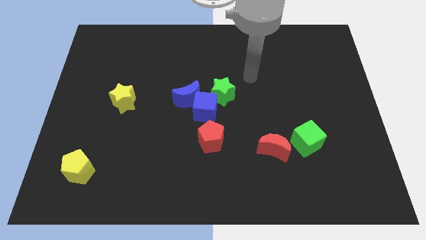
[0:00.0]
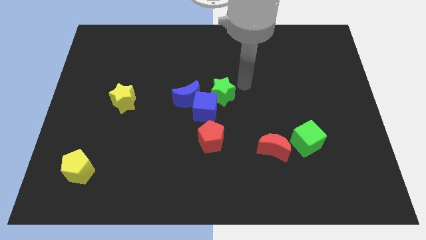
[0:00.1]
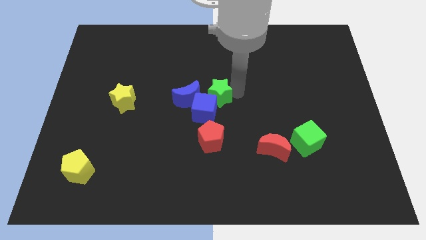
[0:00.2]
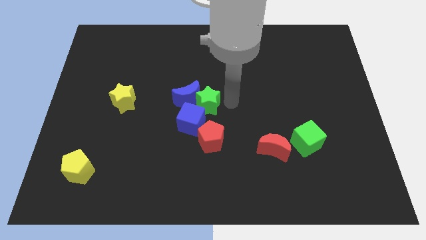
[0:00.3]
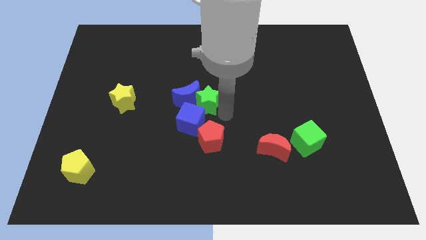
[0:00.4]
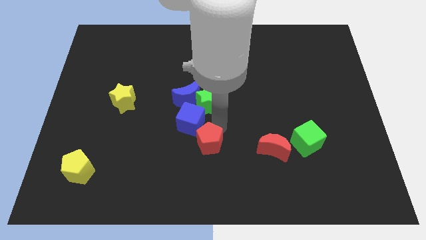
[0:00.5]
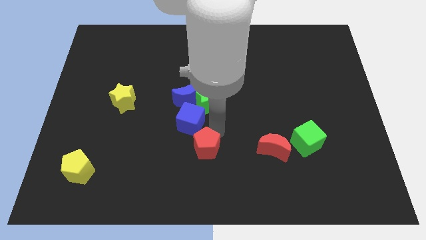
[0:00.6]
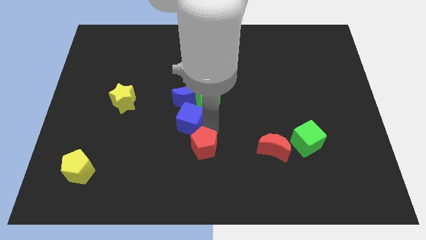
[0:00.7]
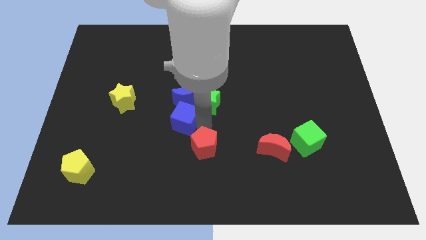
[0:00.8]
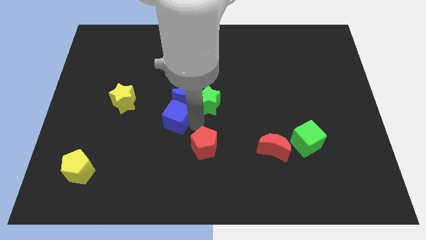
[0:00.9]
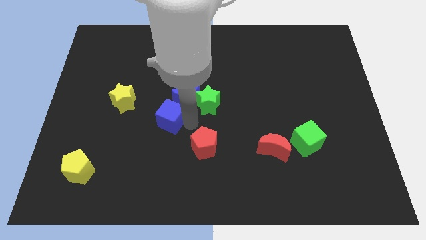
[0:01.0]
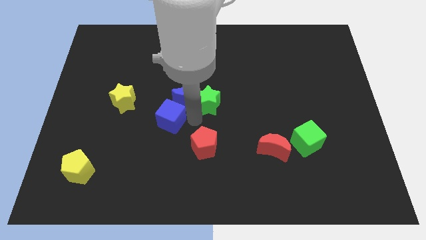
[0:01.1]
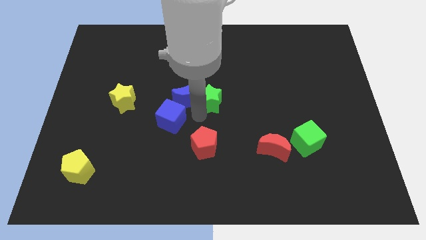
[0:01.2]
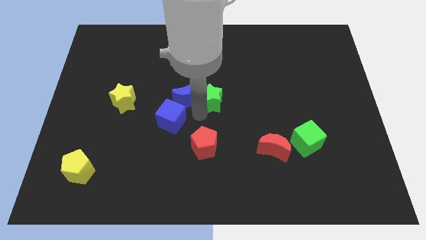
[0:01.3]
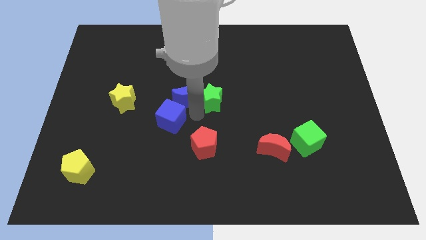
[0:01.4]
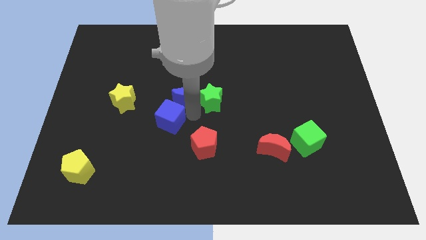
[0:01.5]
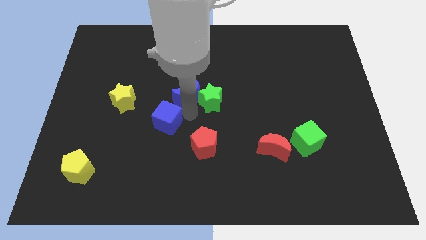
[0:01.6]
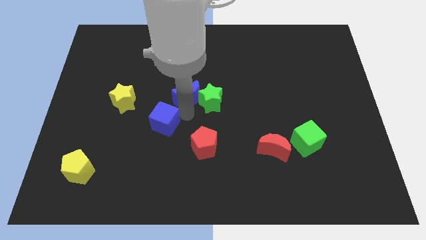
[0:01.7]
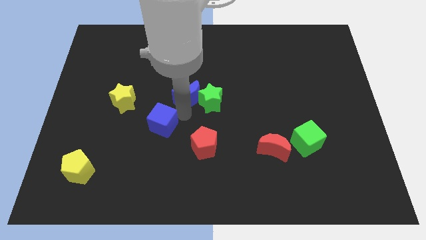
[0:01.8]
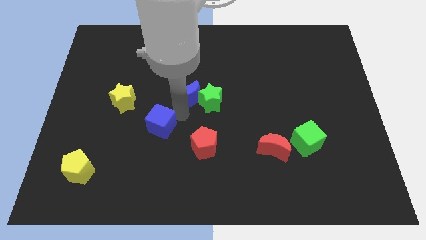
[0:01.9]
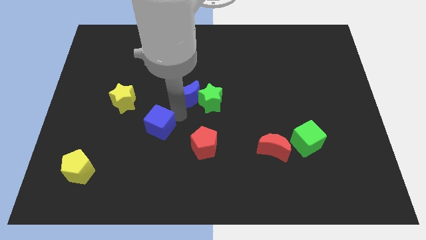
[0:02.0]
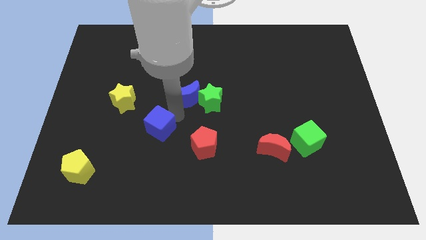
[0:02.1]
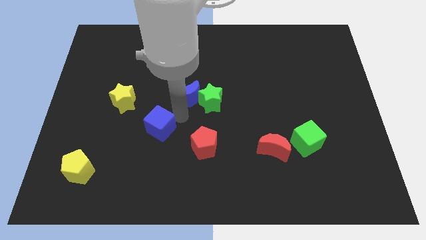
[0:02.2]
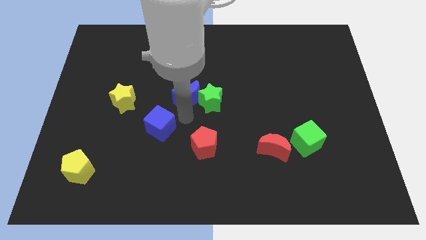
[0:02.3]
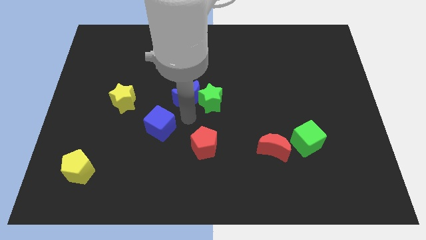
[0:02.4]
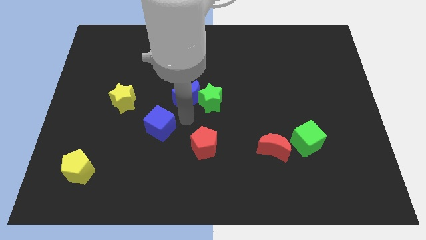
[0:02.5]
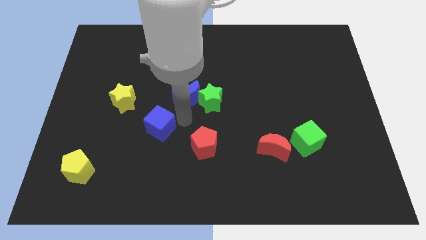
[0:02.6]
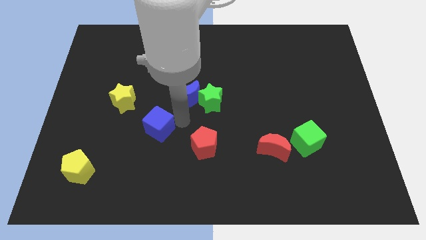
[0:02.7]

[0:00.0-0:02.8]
pull the blue cube apart from the group

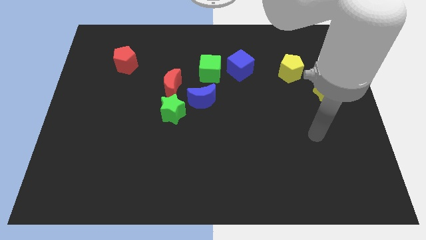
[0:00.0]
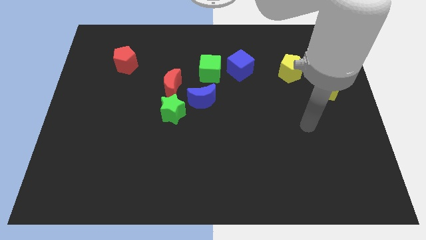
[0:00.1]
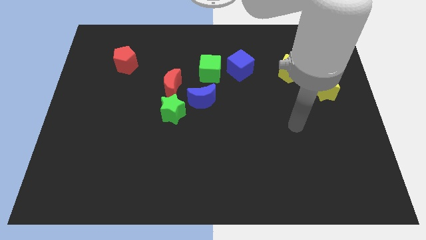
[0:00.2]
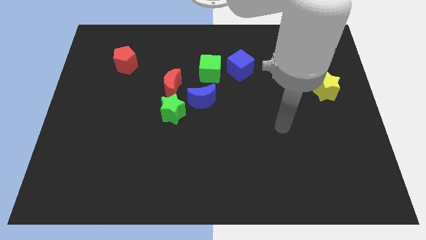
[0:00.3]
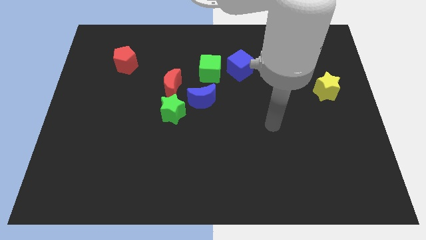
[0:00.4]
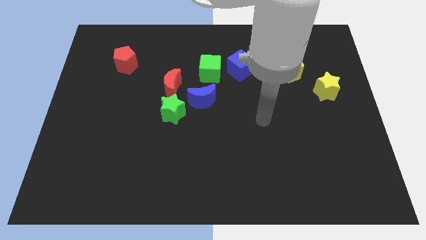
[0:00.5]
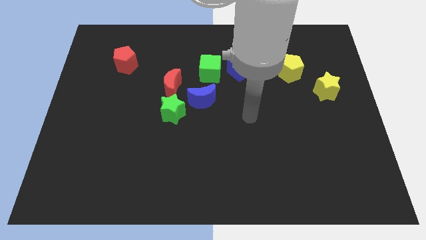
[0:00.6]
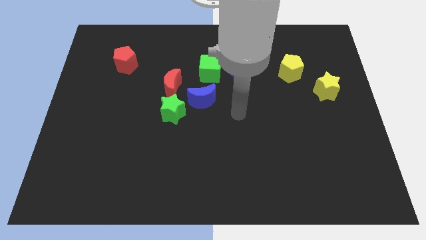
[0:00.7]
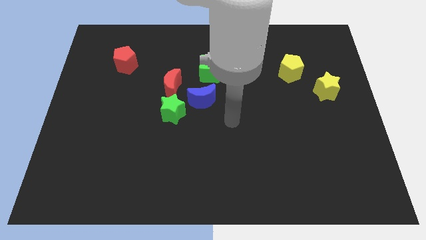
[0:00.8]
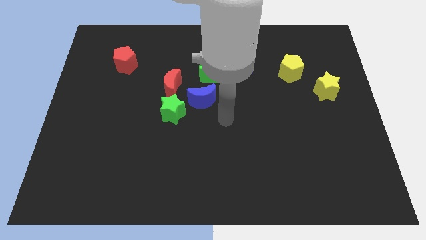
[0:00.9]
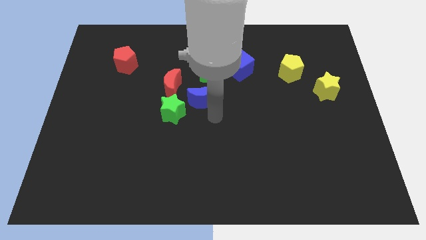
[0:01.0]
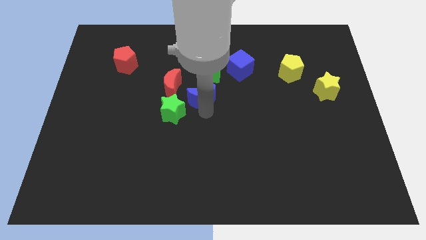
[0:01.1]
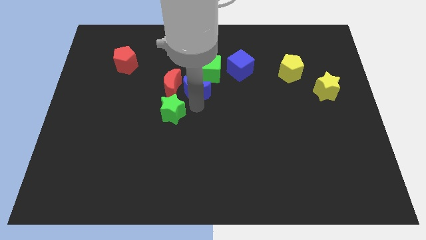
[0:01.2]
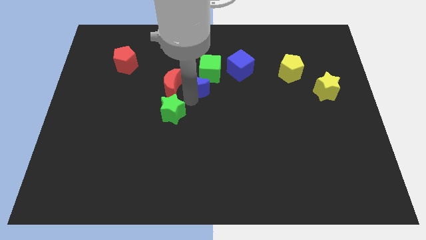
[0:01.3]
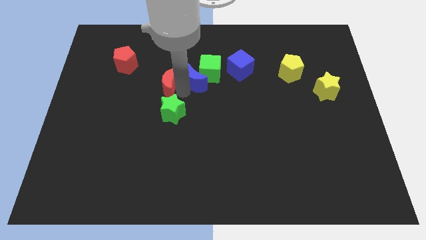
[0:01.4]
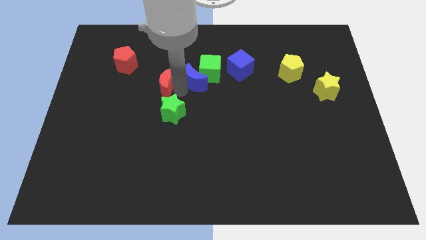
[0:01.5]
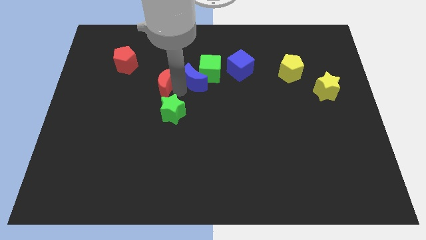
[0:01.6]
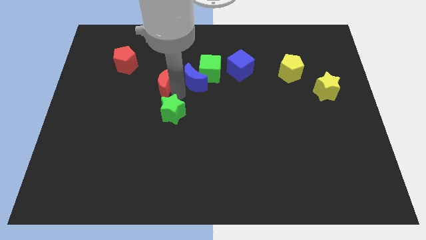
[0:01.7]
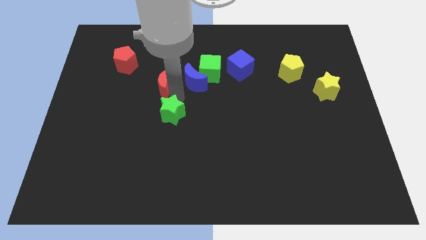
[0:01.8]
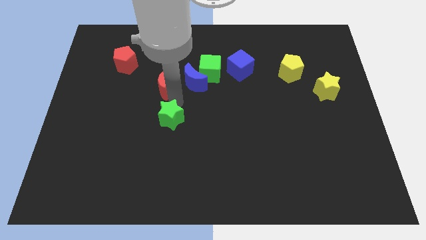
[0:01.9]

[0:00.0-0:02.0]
pull the green star apart from the red moon and blue moon

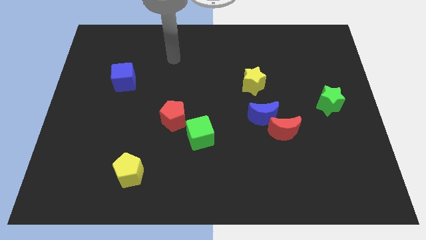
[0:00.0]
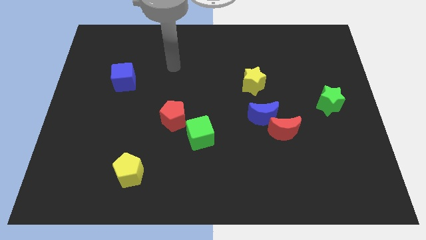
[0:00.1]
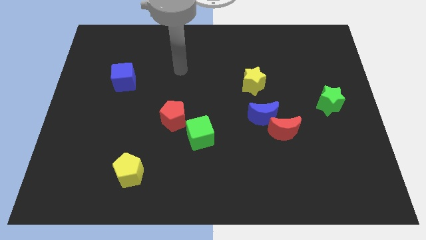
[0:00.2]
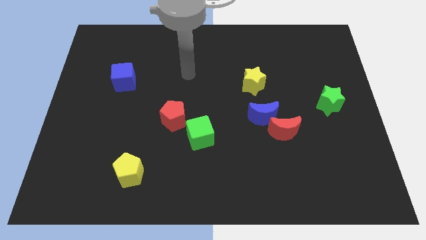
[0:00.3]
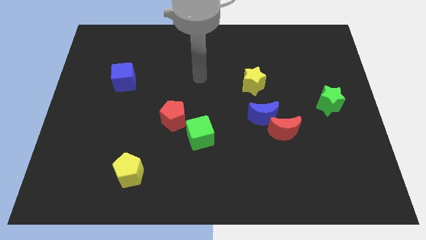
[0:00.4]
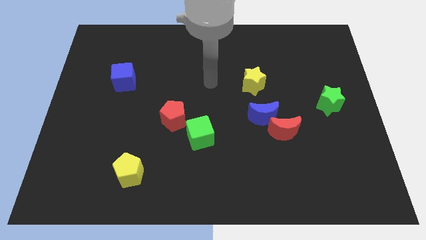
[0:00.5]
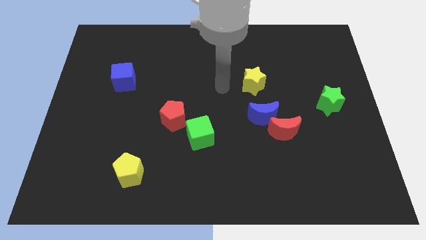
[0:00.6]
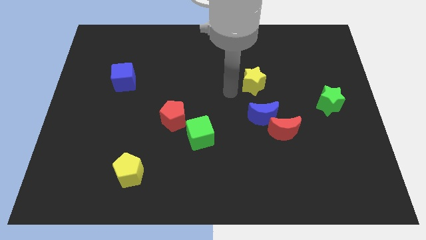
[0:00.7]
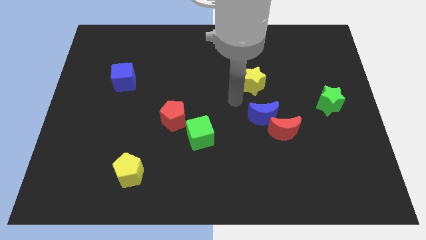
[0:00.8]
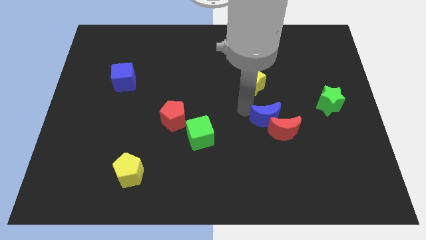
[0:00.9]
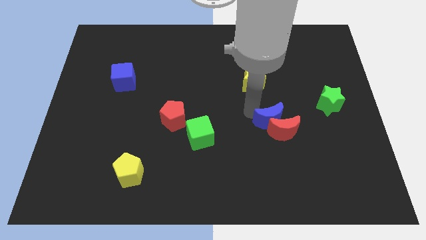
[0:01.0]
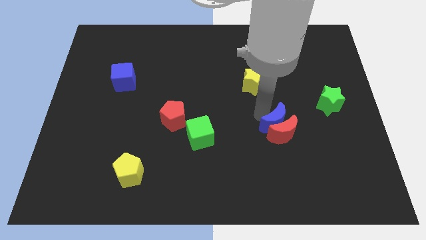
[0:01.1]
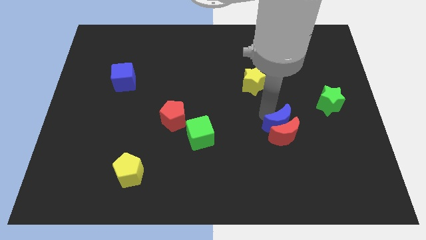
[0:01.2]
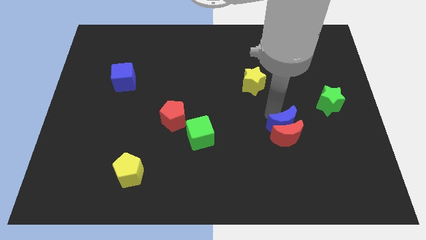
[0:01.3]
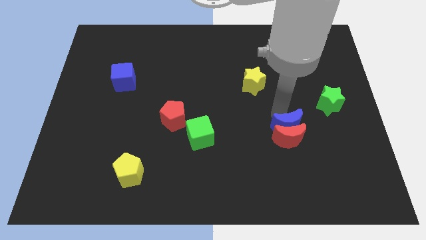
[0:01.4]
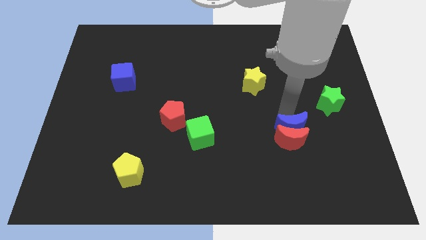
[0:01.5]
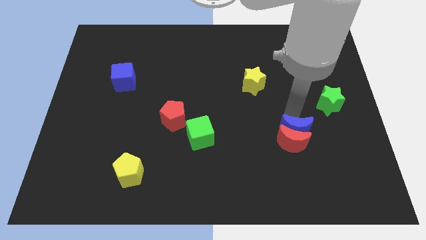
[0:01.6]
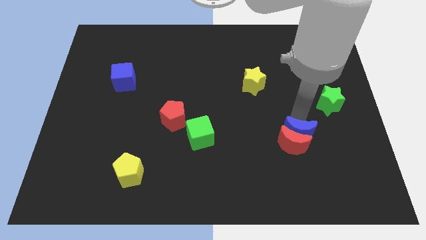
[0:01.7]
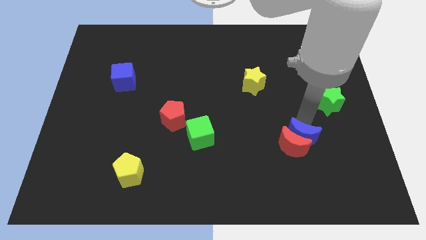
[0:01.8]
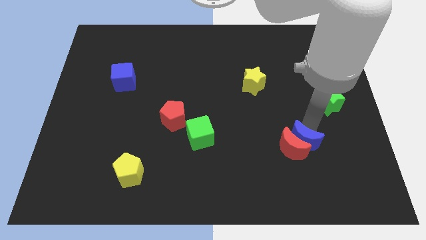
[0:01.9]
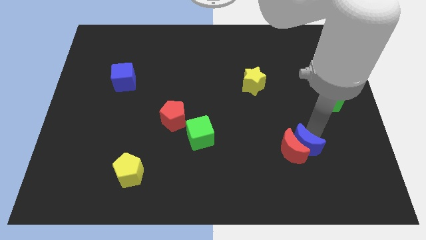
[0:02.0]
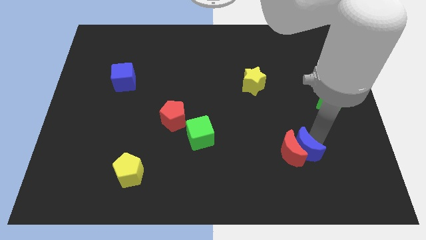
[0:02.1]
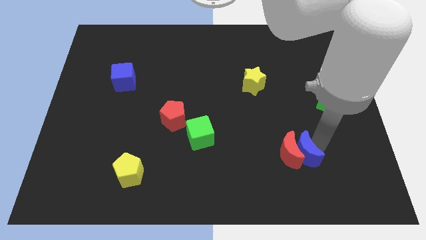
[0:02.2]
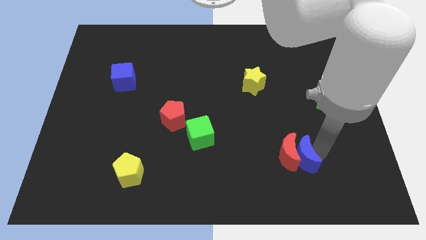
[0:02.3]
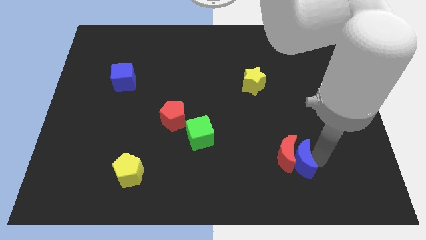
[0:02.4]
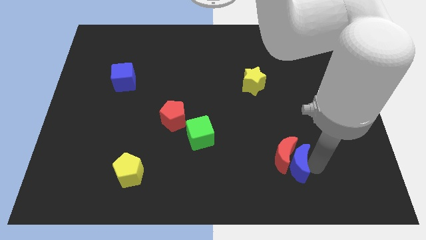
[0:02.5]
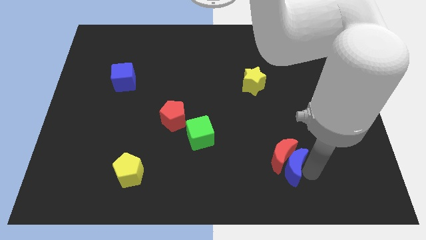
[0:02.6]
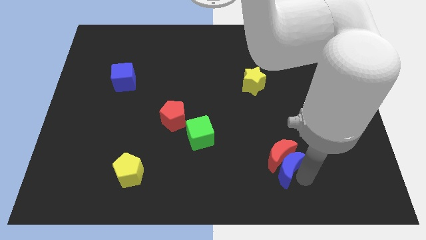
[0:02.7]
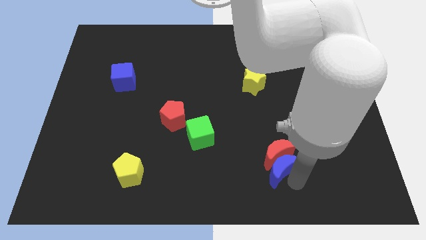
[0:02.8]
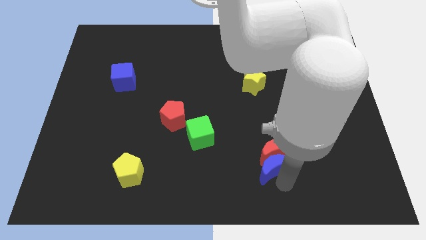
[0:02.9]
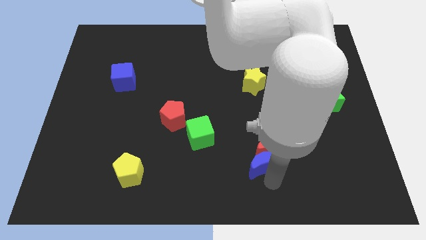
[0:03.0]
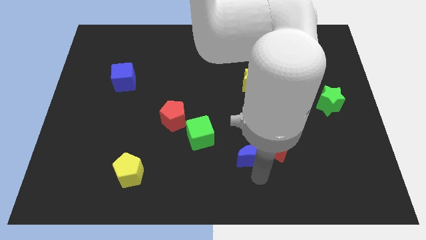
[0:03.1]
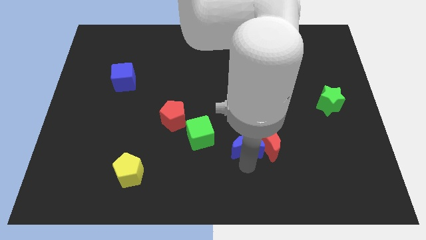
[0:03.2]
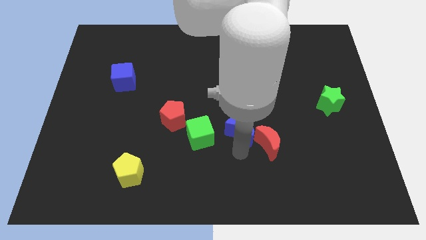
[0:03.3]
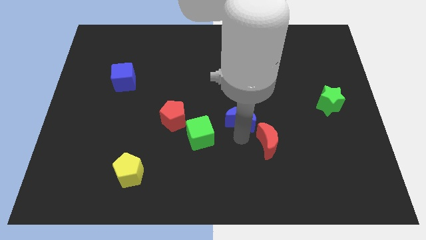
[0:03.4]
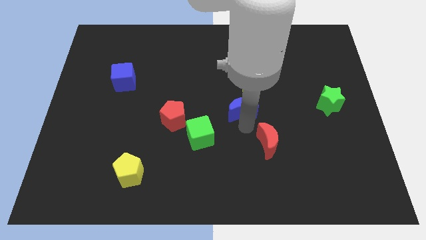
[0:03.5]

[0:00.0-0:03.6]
move the red moon away from the blue moon

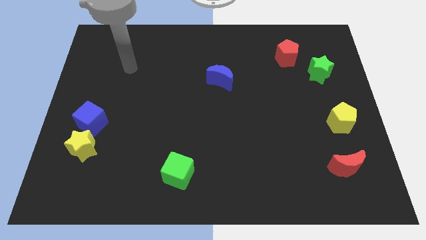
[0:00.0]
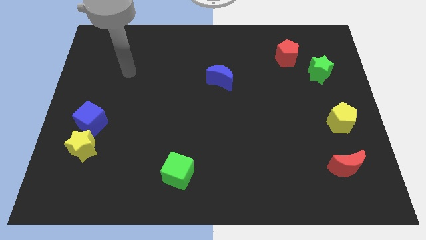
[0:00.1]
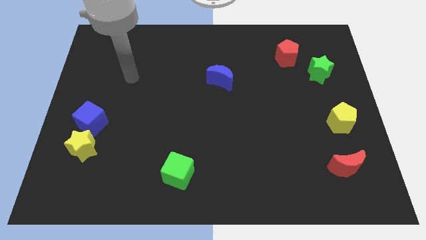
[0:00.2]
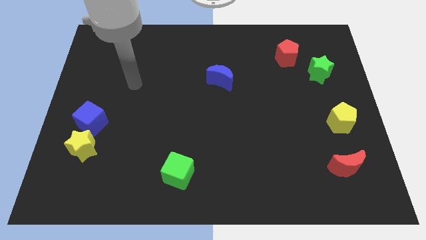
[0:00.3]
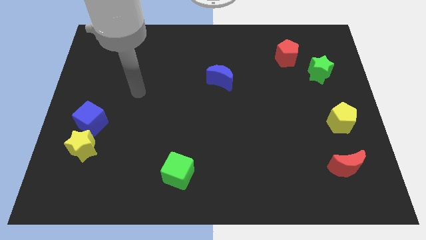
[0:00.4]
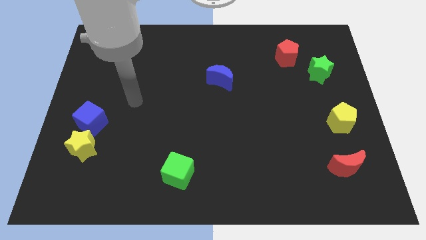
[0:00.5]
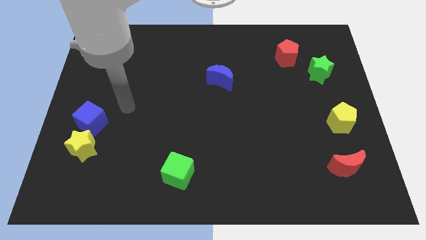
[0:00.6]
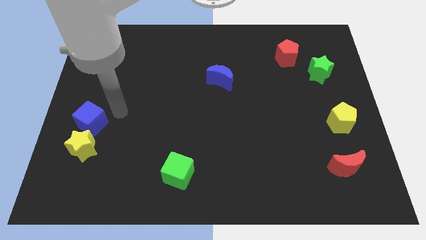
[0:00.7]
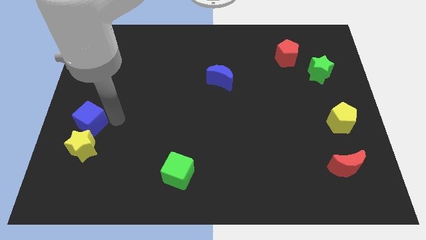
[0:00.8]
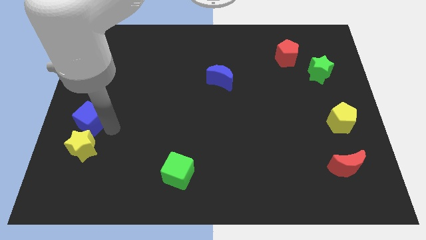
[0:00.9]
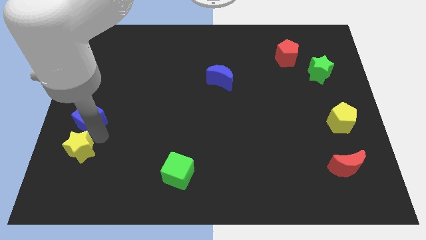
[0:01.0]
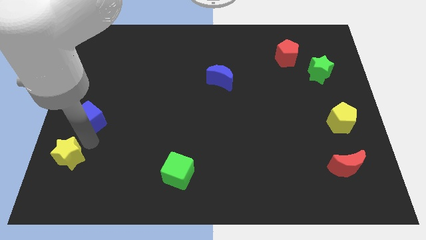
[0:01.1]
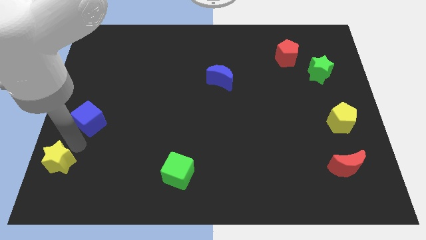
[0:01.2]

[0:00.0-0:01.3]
separate the blue cube from the yellow star
